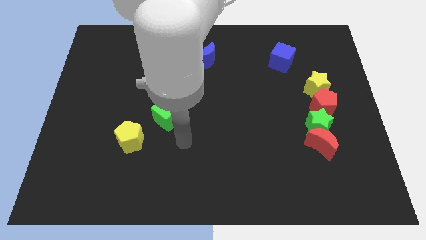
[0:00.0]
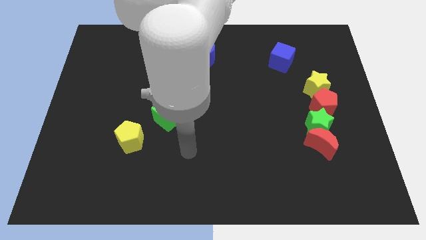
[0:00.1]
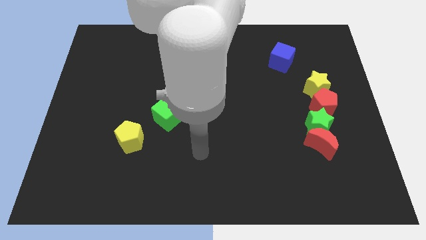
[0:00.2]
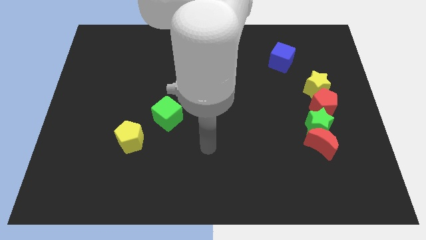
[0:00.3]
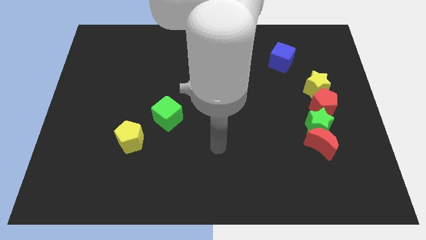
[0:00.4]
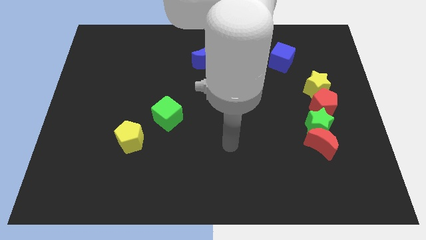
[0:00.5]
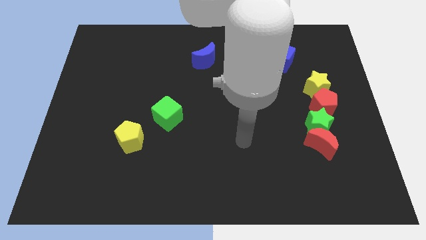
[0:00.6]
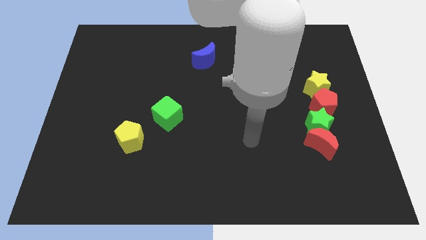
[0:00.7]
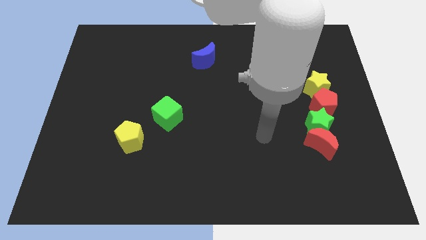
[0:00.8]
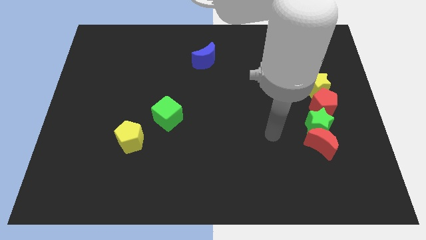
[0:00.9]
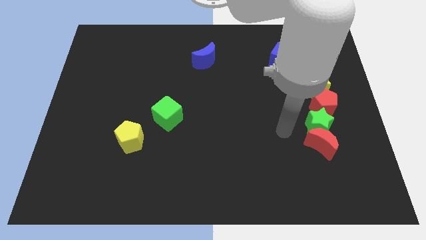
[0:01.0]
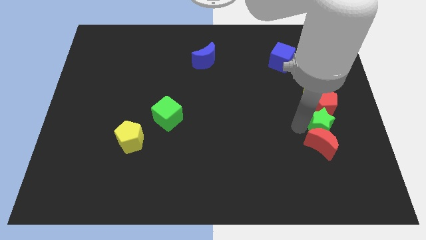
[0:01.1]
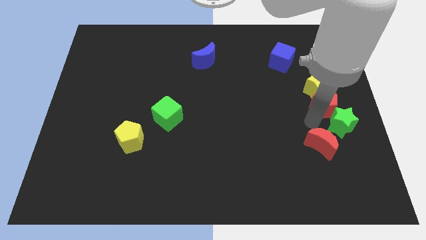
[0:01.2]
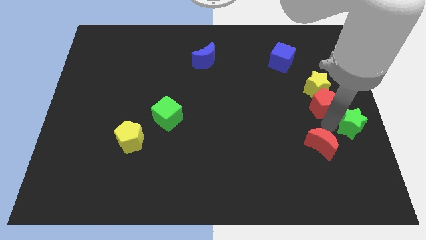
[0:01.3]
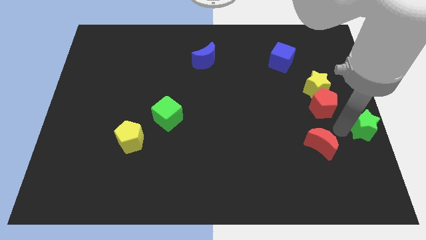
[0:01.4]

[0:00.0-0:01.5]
move the red moon away from the green star

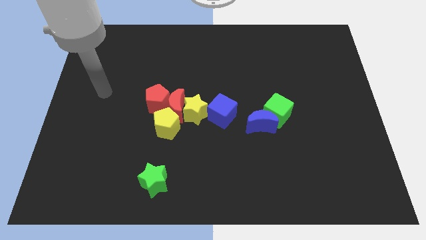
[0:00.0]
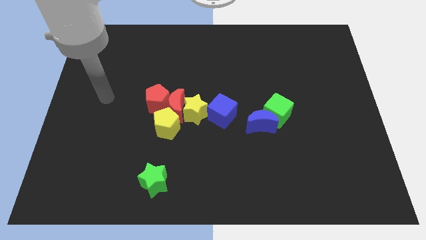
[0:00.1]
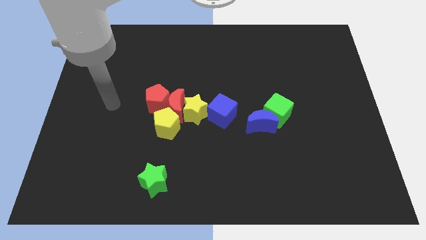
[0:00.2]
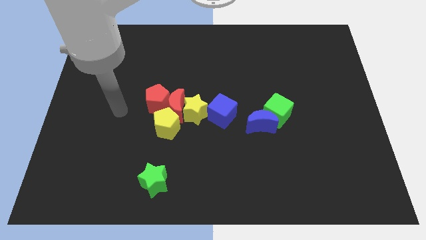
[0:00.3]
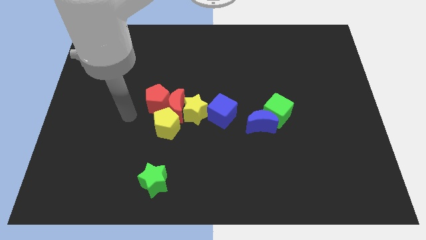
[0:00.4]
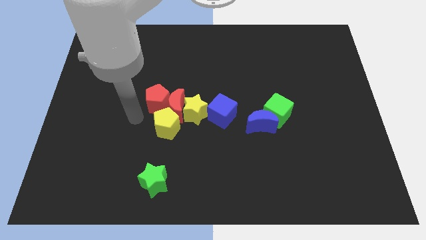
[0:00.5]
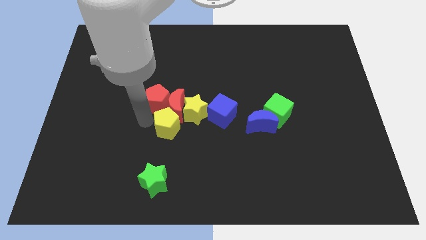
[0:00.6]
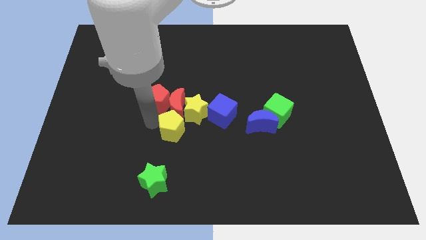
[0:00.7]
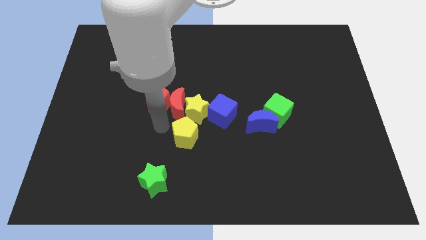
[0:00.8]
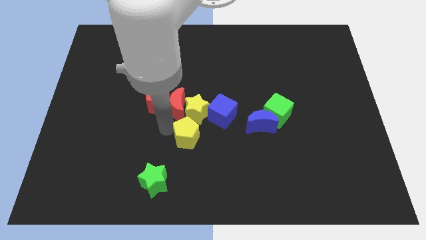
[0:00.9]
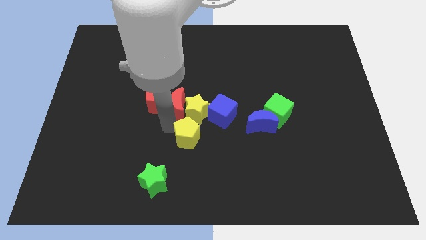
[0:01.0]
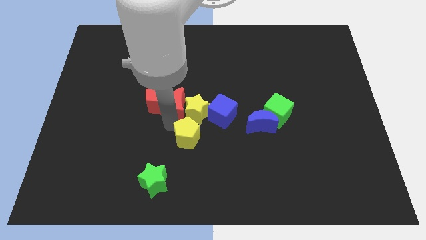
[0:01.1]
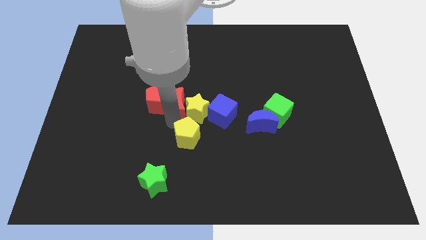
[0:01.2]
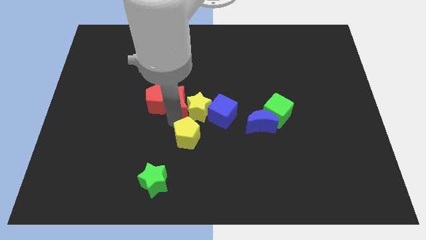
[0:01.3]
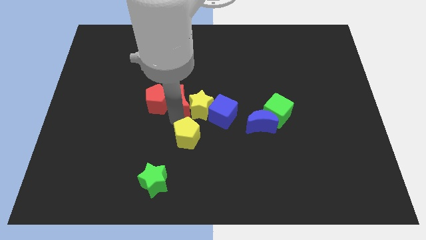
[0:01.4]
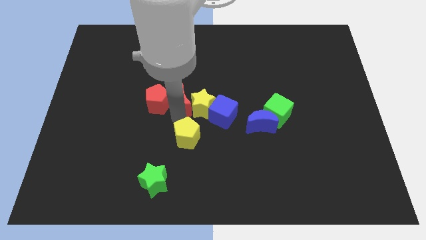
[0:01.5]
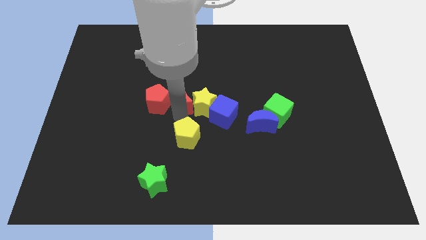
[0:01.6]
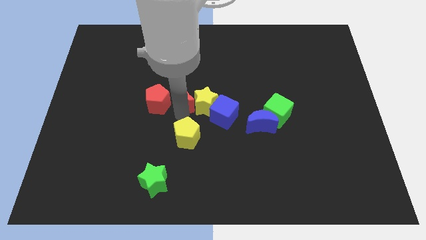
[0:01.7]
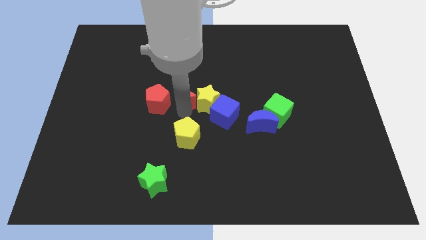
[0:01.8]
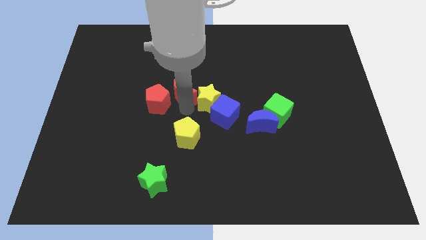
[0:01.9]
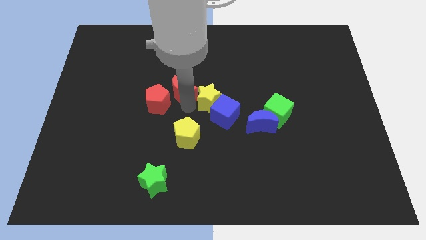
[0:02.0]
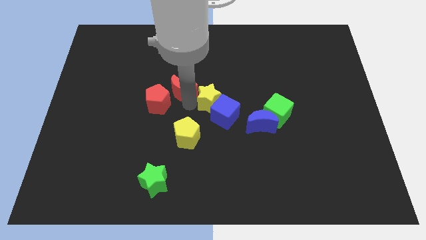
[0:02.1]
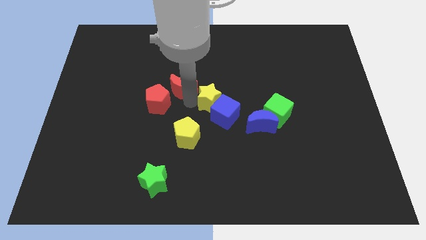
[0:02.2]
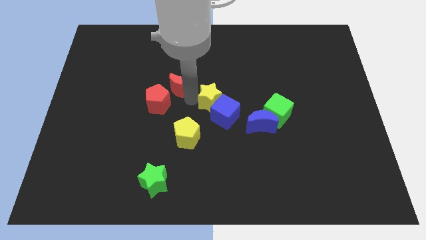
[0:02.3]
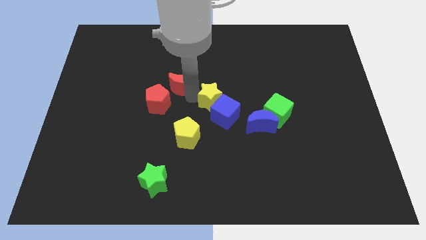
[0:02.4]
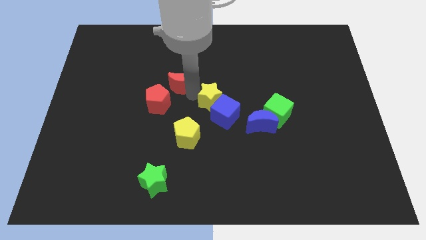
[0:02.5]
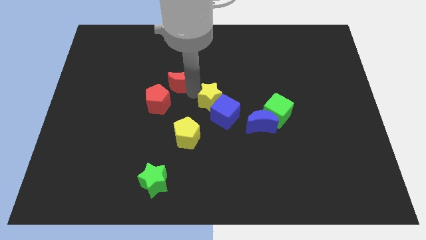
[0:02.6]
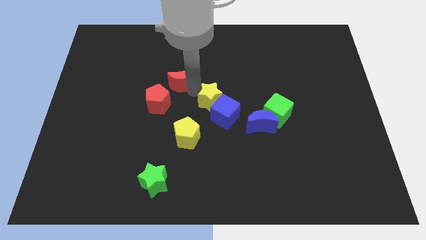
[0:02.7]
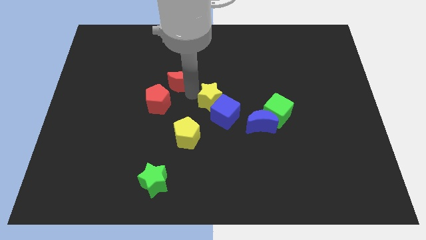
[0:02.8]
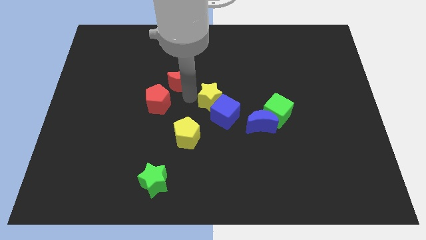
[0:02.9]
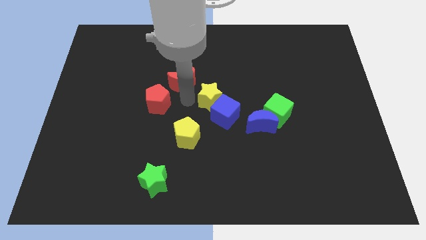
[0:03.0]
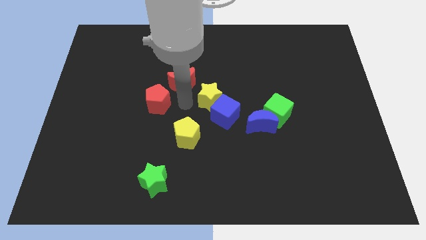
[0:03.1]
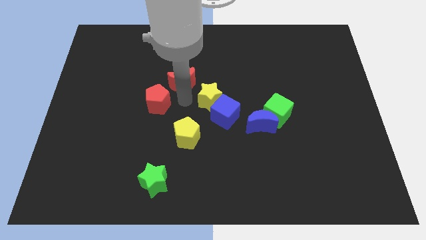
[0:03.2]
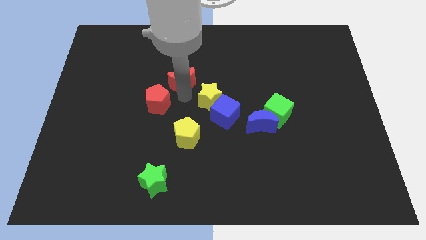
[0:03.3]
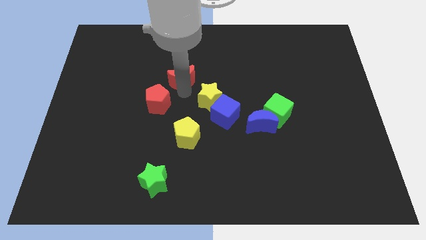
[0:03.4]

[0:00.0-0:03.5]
pull the red moon apart from the clump

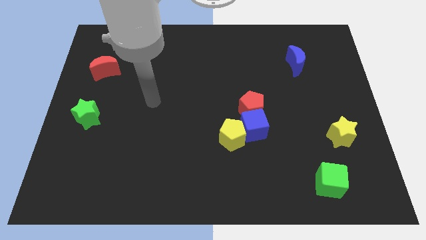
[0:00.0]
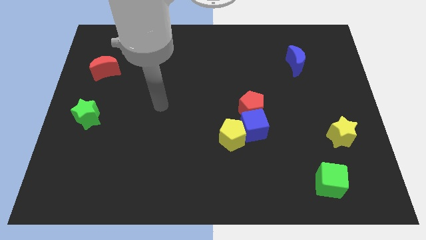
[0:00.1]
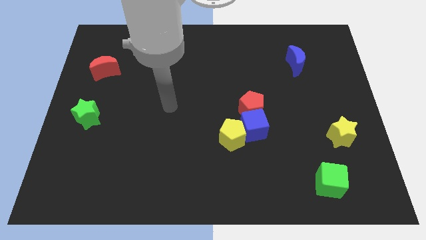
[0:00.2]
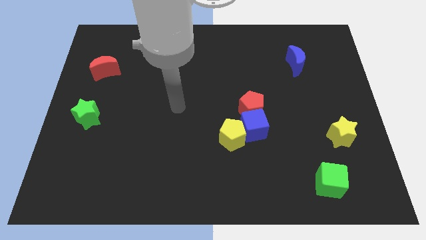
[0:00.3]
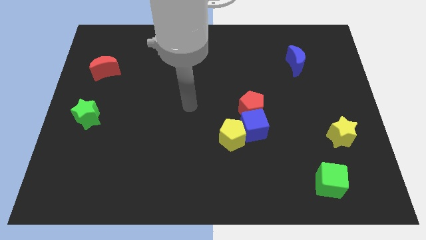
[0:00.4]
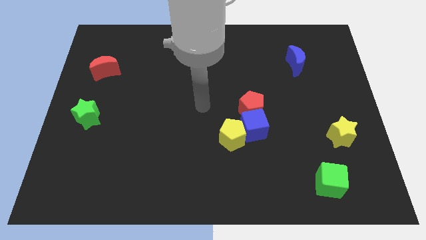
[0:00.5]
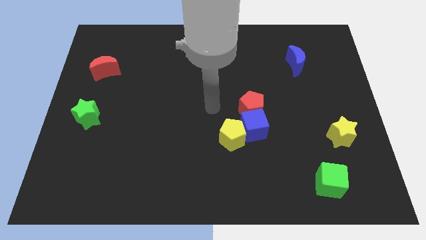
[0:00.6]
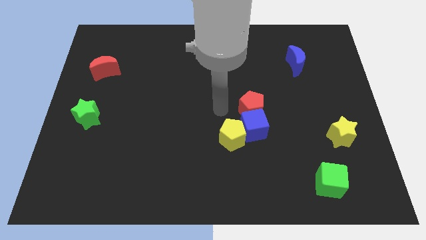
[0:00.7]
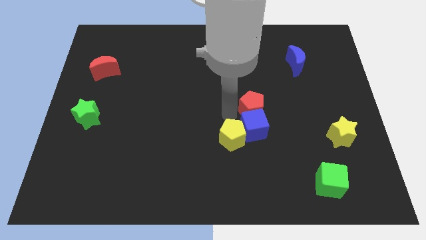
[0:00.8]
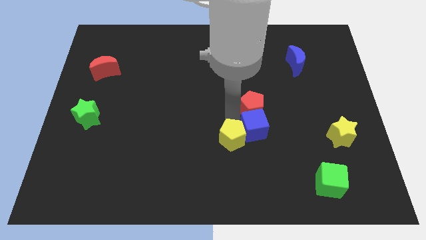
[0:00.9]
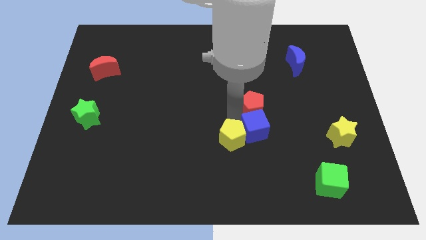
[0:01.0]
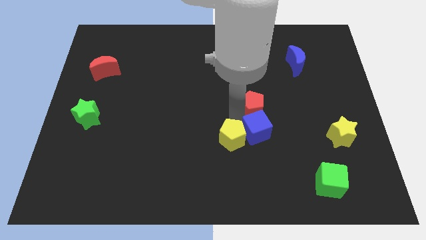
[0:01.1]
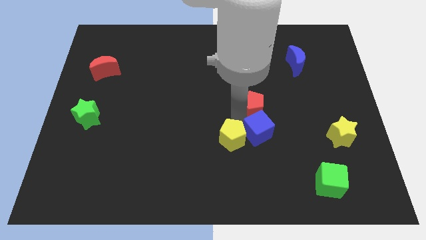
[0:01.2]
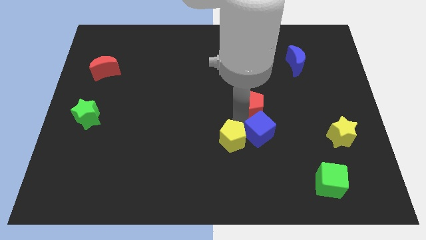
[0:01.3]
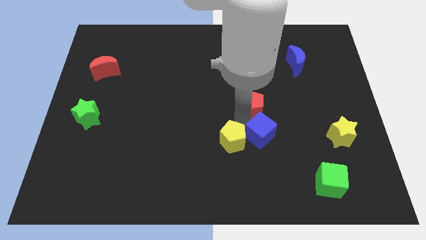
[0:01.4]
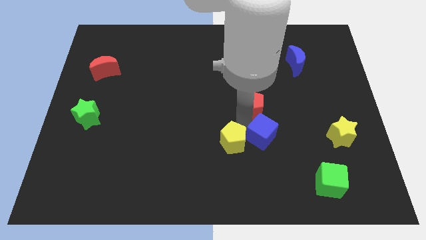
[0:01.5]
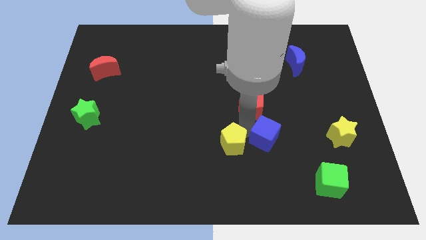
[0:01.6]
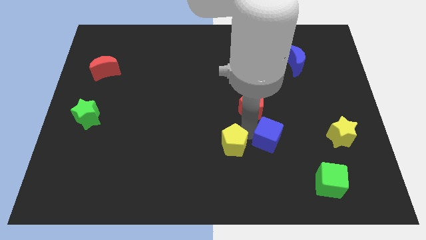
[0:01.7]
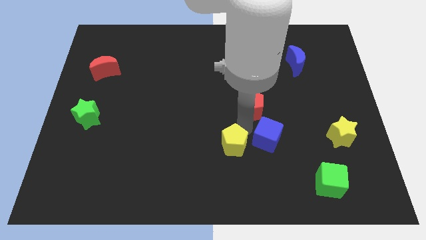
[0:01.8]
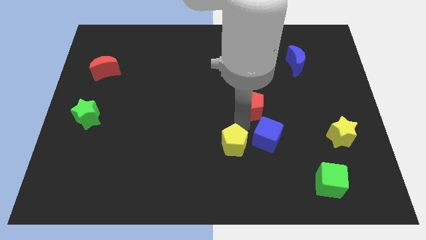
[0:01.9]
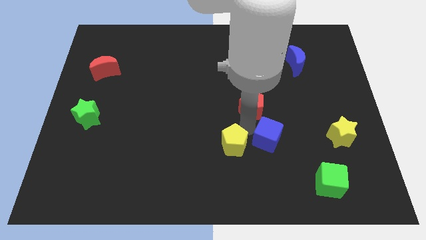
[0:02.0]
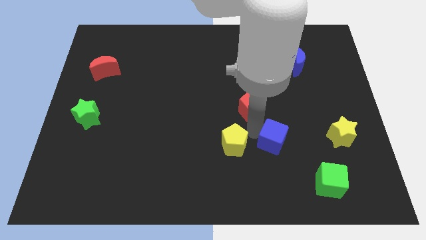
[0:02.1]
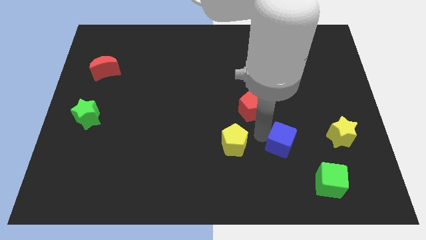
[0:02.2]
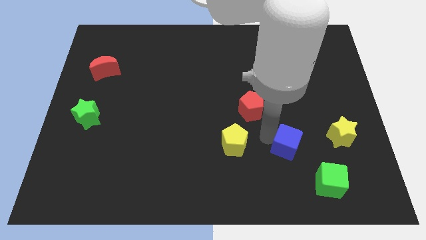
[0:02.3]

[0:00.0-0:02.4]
move the blue cube away from the red pentagon and yellow pentagon

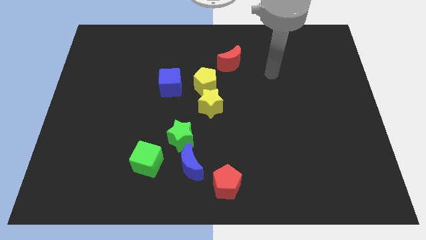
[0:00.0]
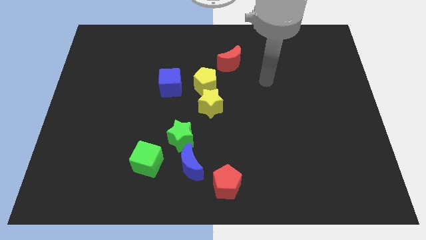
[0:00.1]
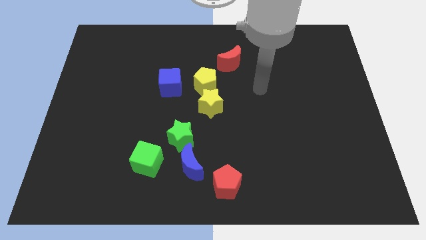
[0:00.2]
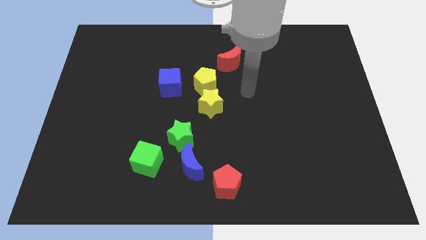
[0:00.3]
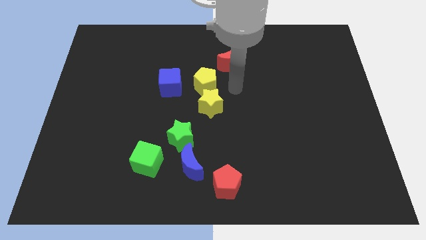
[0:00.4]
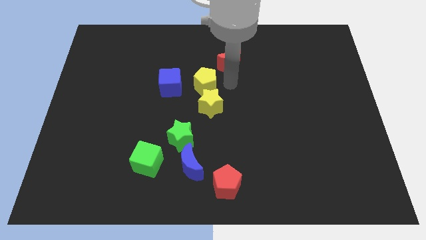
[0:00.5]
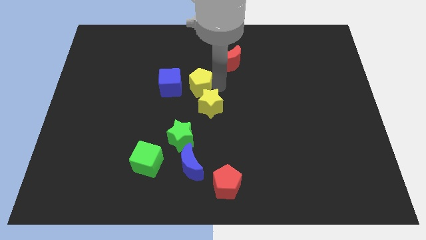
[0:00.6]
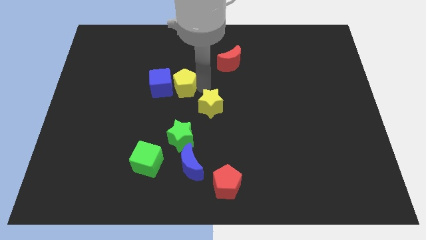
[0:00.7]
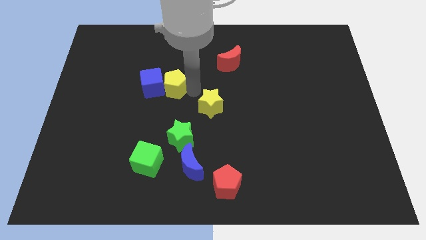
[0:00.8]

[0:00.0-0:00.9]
pull the yellow star apart from the yellow pentagon

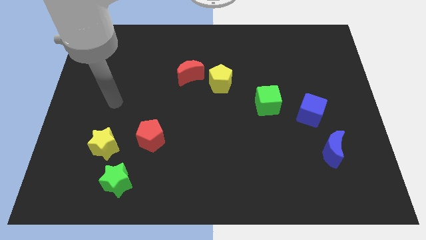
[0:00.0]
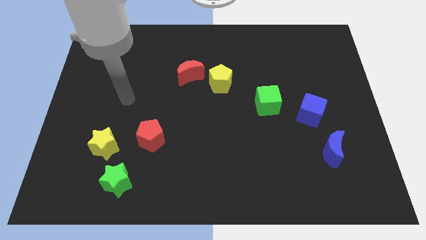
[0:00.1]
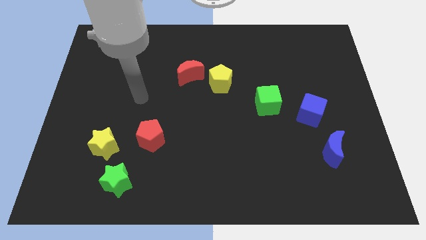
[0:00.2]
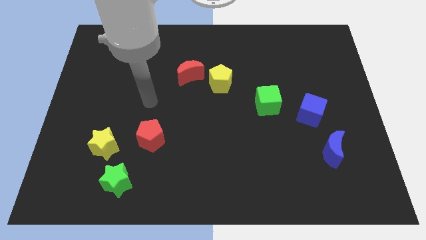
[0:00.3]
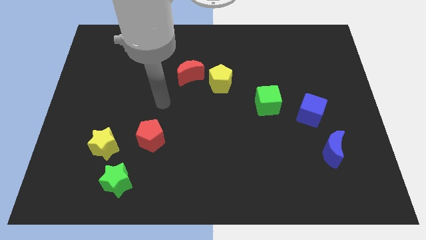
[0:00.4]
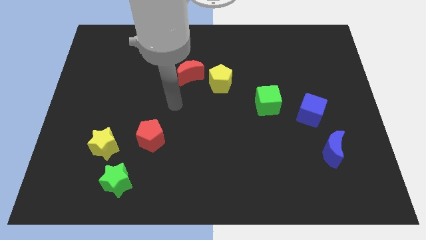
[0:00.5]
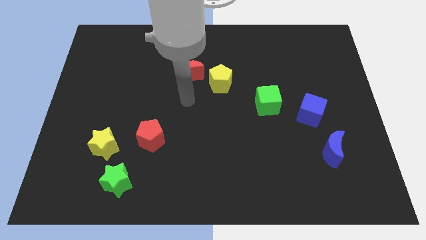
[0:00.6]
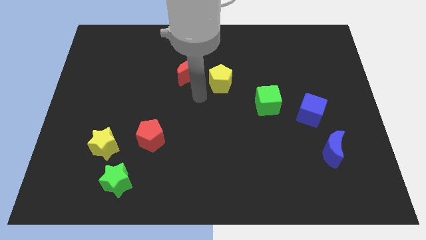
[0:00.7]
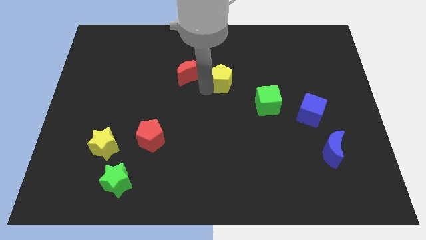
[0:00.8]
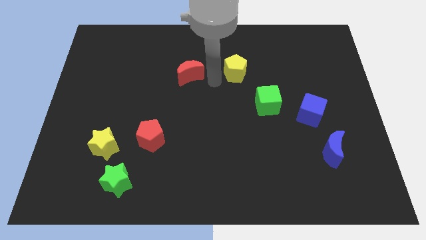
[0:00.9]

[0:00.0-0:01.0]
pull the red moon apart from the yellow pentagon
